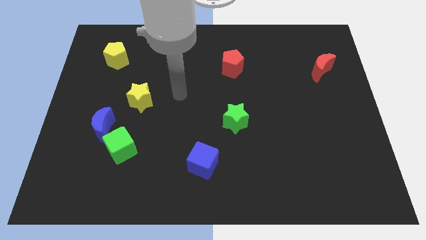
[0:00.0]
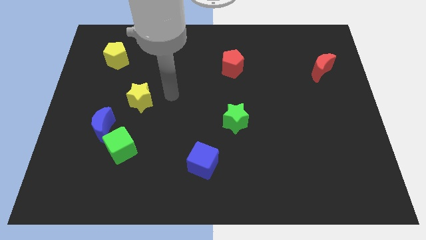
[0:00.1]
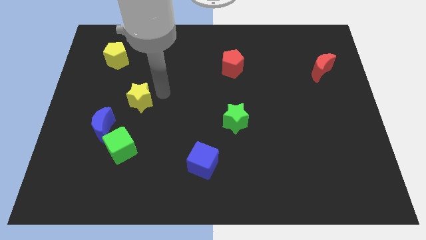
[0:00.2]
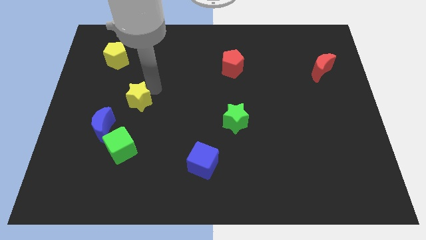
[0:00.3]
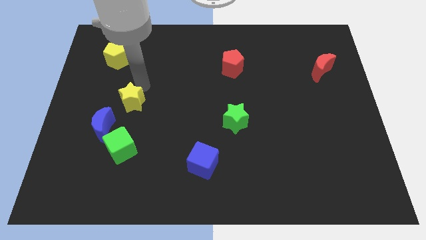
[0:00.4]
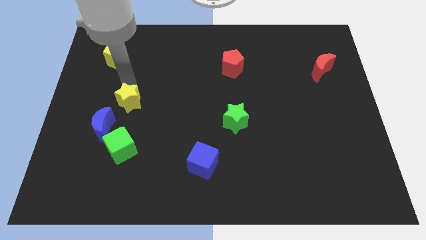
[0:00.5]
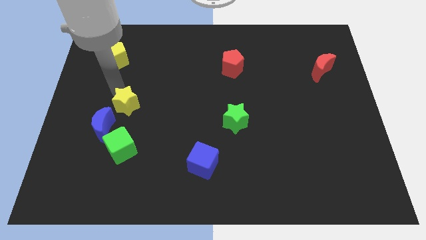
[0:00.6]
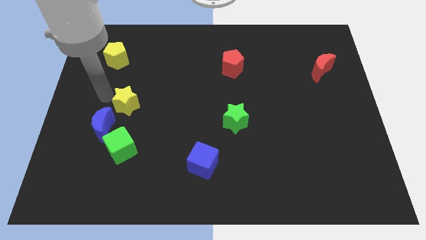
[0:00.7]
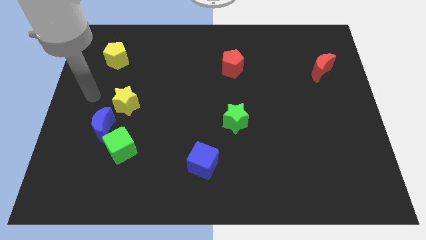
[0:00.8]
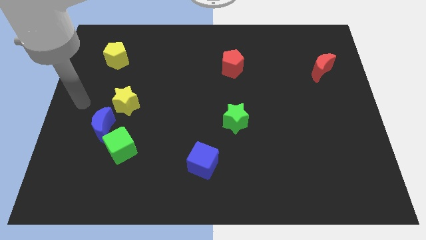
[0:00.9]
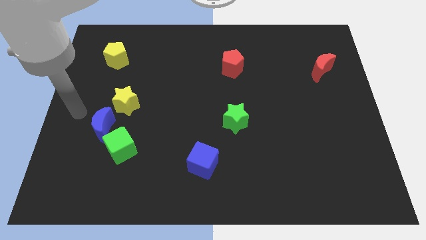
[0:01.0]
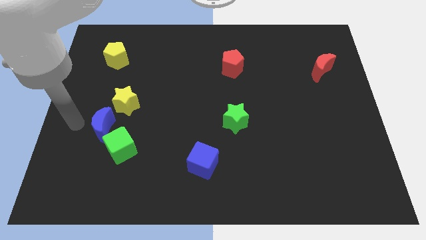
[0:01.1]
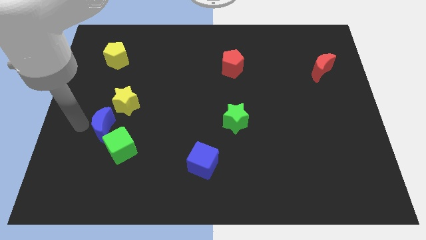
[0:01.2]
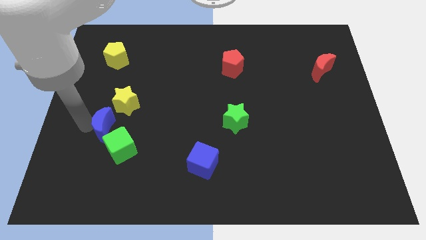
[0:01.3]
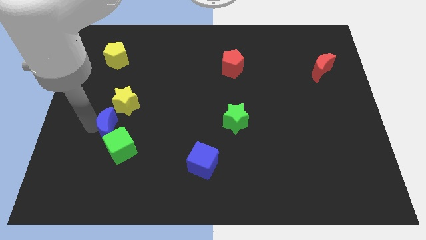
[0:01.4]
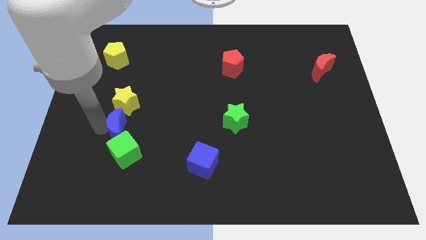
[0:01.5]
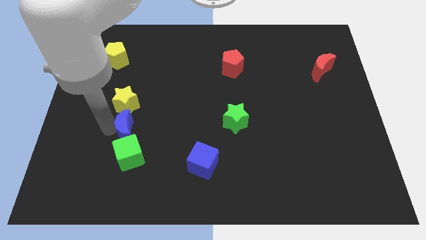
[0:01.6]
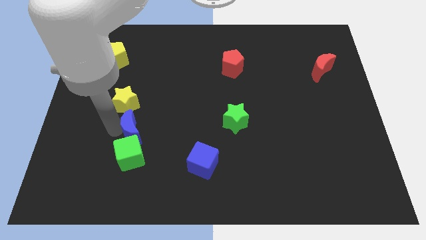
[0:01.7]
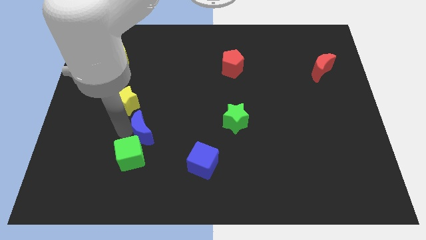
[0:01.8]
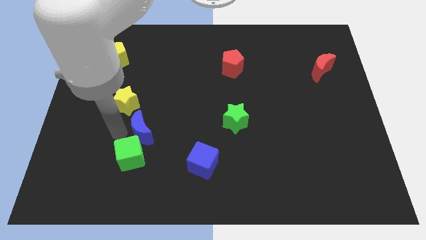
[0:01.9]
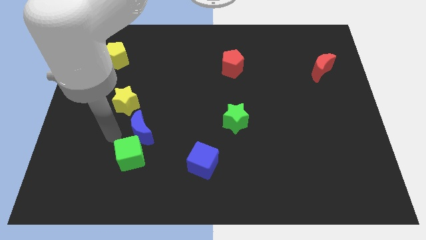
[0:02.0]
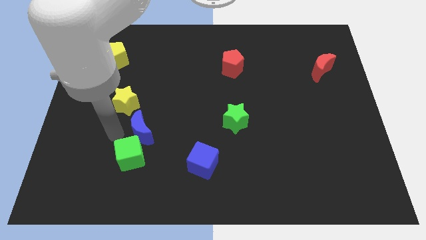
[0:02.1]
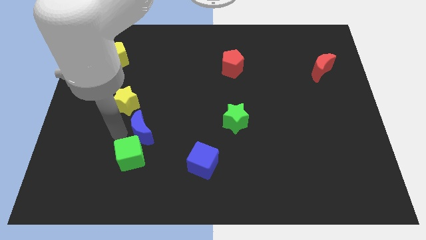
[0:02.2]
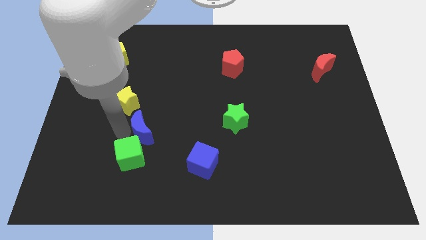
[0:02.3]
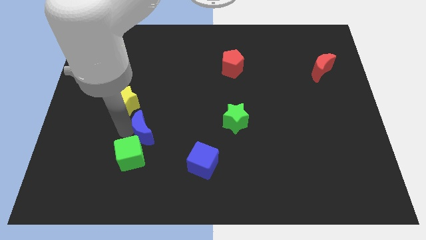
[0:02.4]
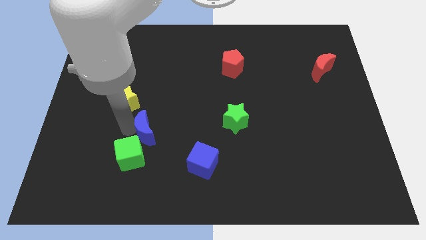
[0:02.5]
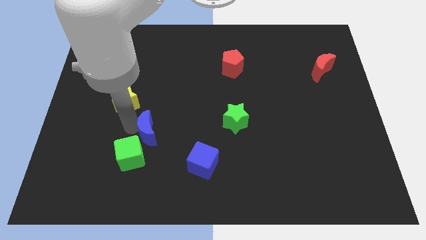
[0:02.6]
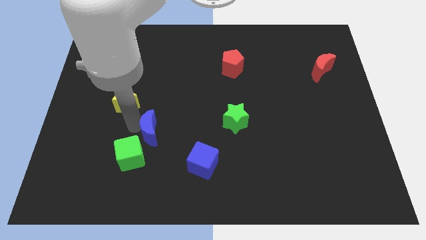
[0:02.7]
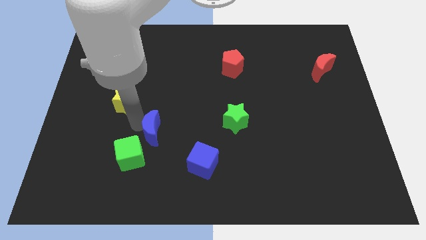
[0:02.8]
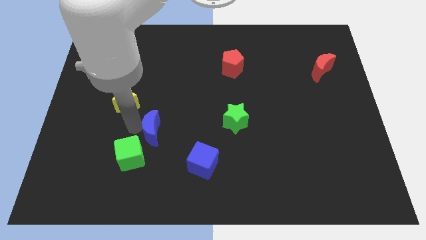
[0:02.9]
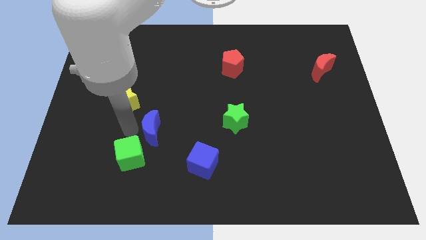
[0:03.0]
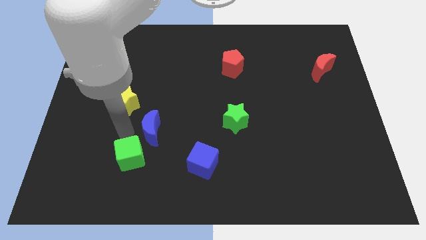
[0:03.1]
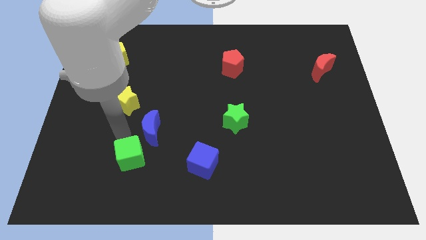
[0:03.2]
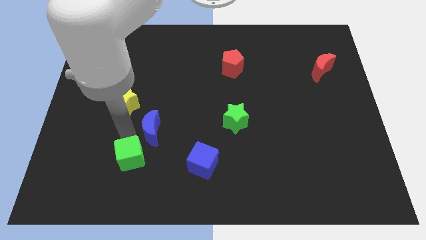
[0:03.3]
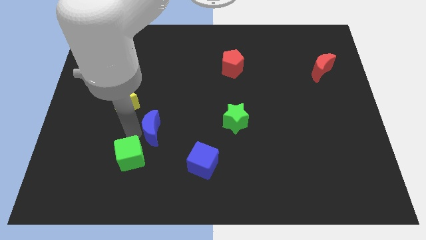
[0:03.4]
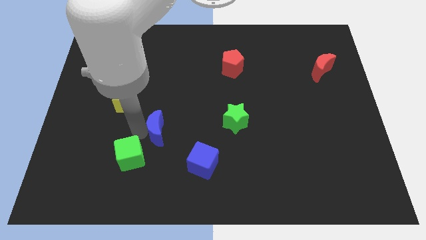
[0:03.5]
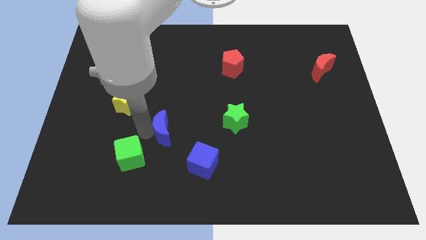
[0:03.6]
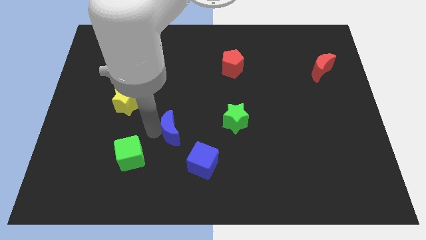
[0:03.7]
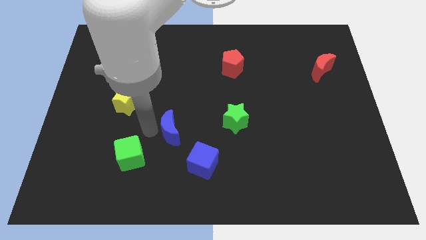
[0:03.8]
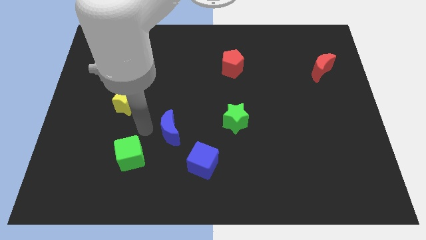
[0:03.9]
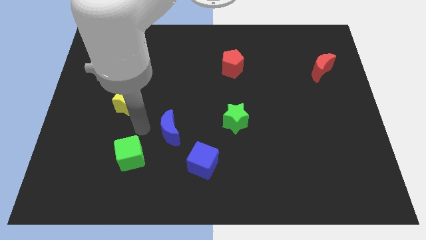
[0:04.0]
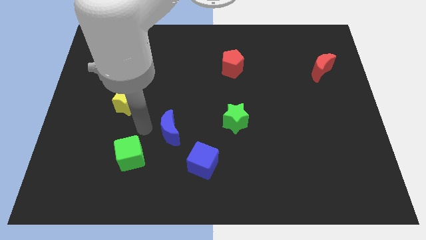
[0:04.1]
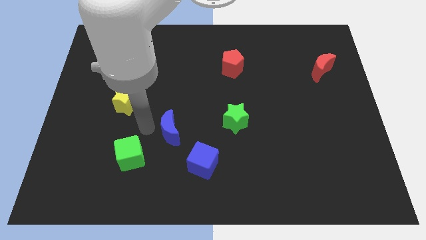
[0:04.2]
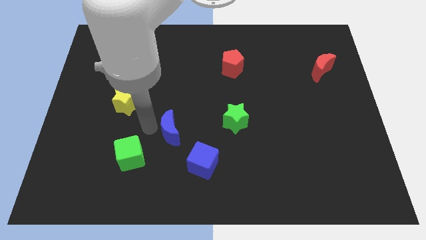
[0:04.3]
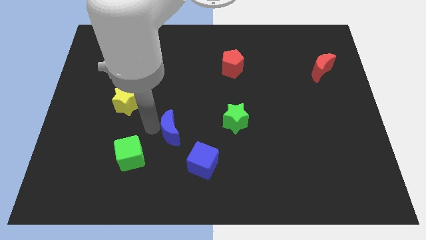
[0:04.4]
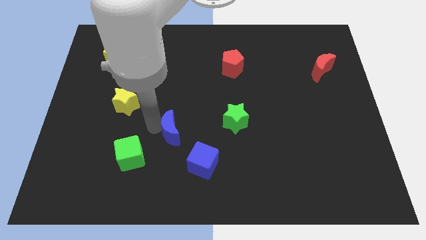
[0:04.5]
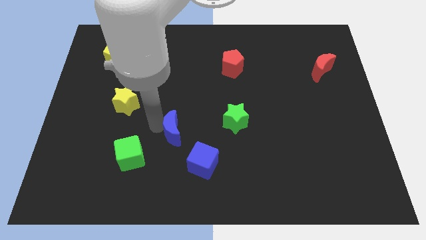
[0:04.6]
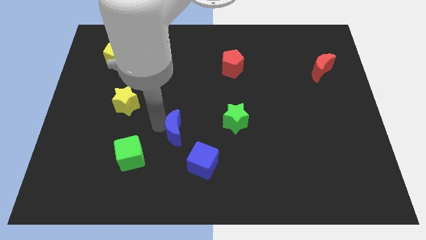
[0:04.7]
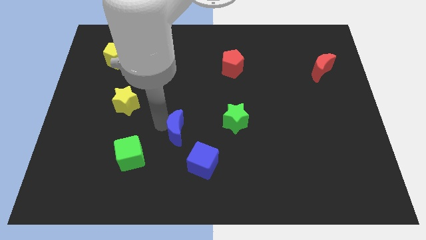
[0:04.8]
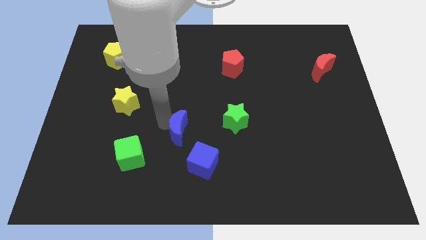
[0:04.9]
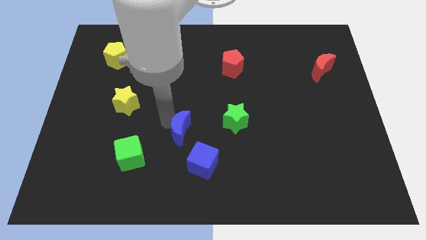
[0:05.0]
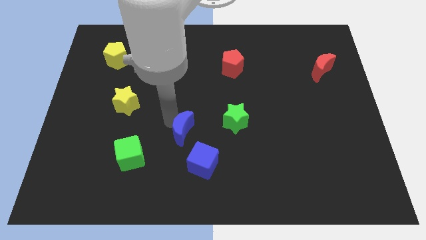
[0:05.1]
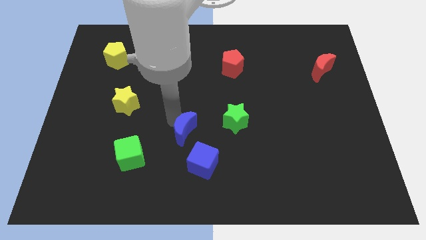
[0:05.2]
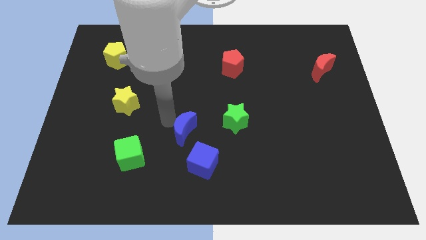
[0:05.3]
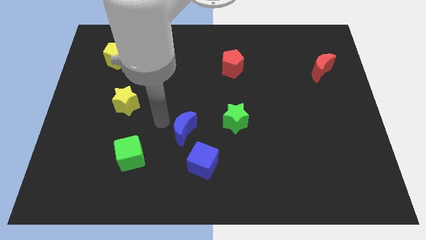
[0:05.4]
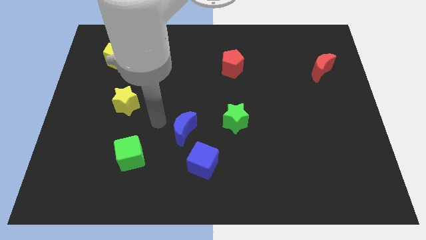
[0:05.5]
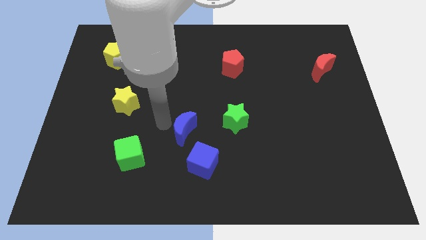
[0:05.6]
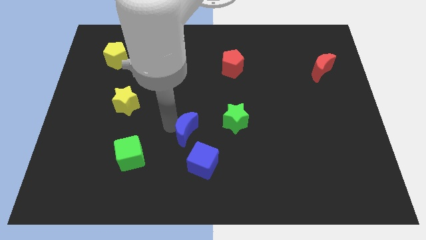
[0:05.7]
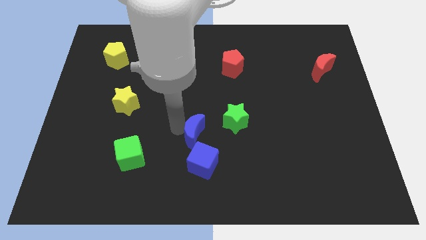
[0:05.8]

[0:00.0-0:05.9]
push the blue moon diagonally down and to the left of the green star

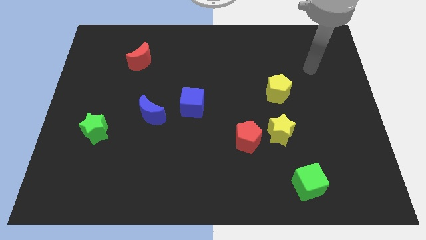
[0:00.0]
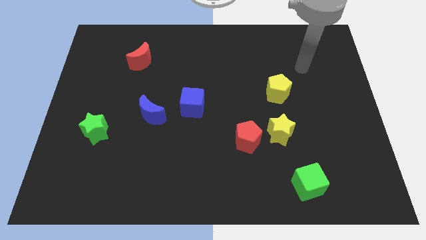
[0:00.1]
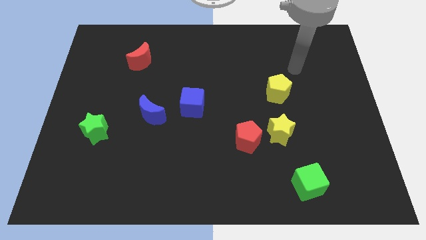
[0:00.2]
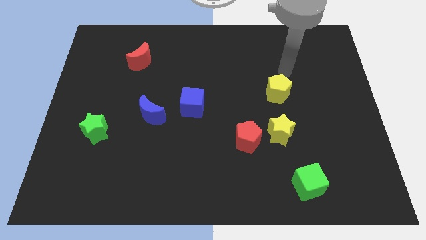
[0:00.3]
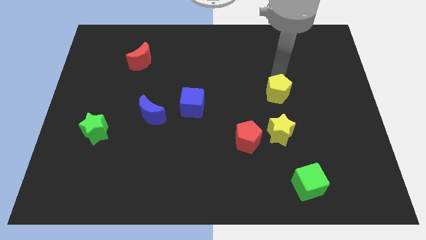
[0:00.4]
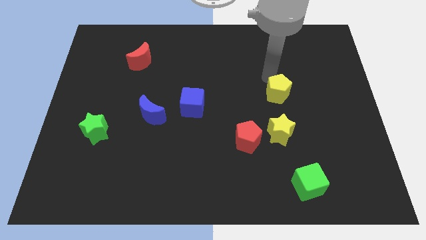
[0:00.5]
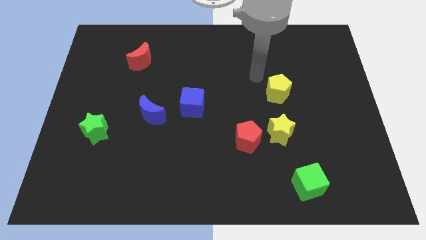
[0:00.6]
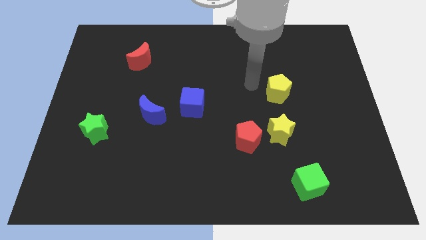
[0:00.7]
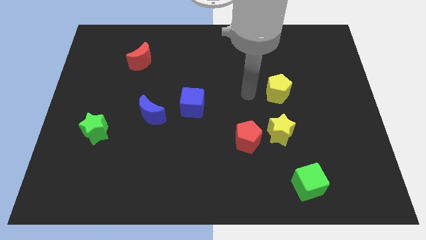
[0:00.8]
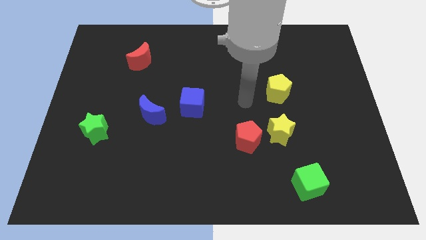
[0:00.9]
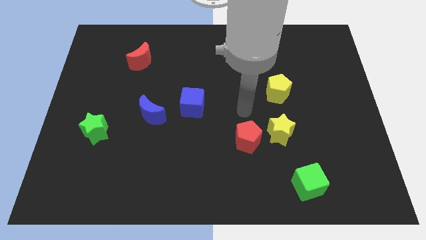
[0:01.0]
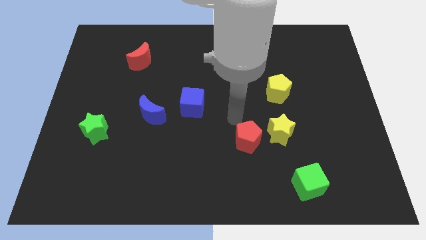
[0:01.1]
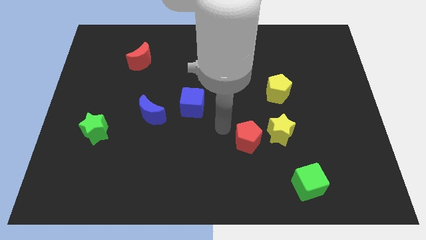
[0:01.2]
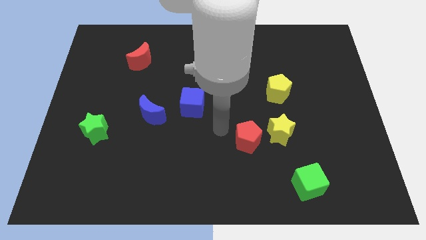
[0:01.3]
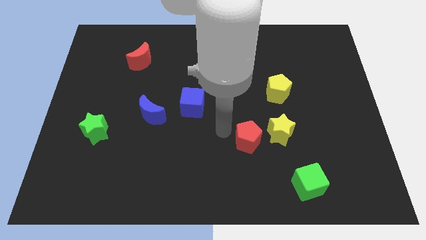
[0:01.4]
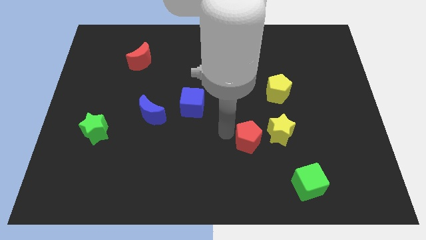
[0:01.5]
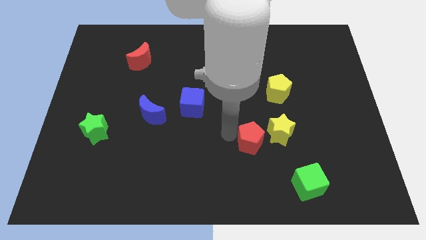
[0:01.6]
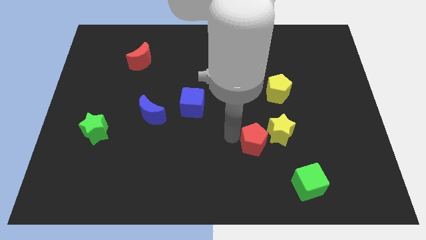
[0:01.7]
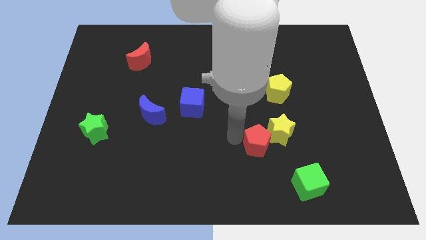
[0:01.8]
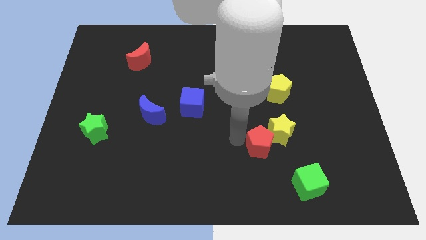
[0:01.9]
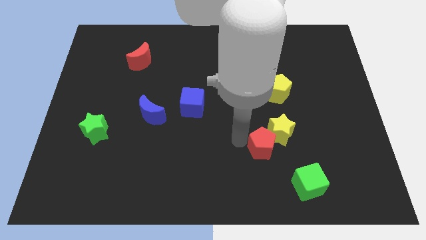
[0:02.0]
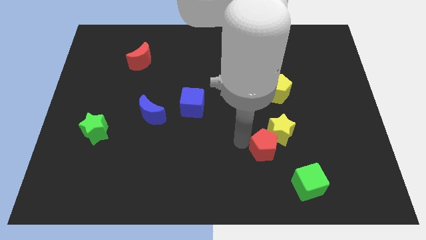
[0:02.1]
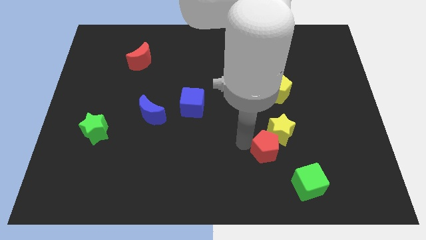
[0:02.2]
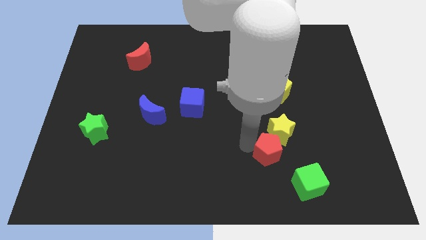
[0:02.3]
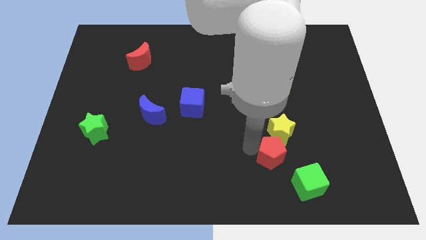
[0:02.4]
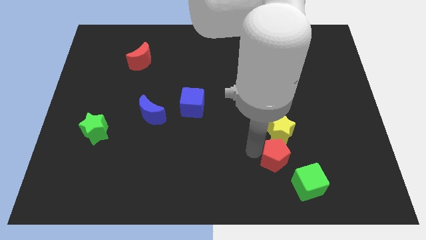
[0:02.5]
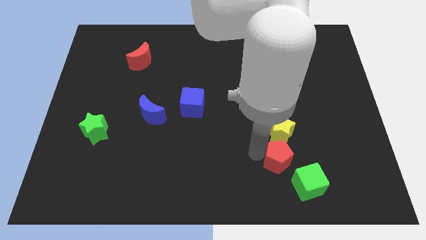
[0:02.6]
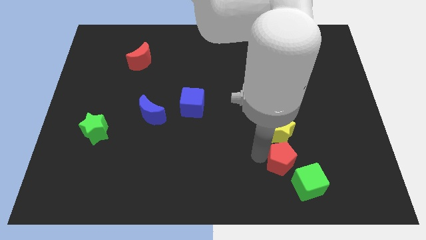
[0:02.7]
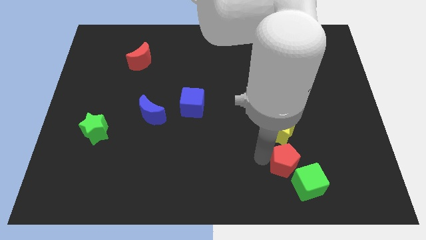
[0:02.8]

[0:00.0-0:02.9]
push the red pentagon to the top side of the green cube
